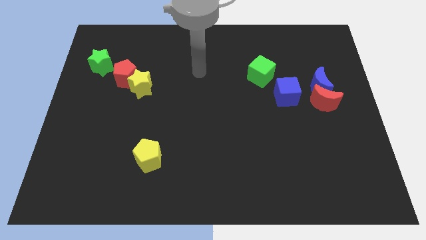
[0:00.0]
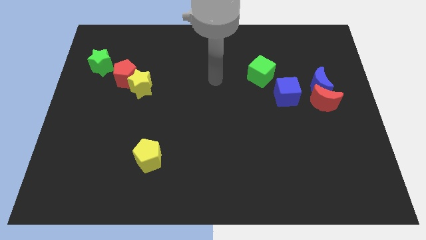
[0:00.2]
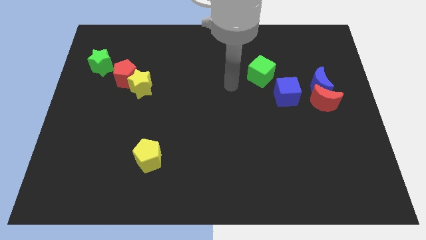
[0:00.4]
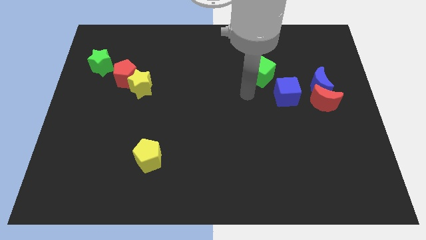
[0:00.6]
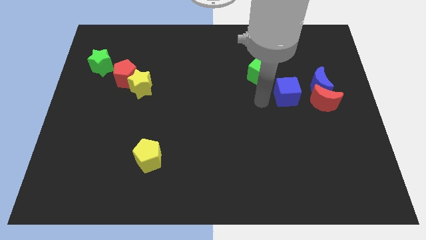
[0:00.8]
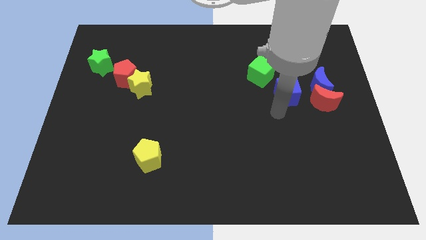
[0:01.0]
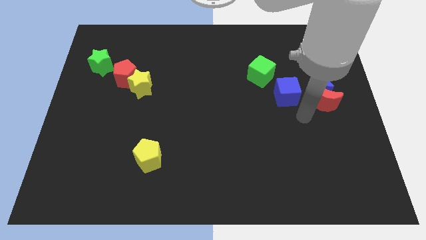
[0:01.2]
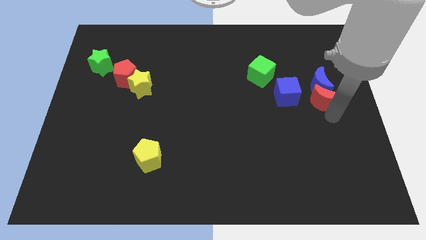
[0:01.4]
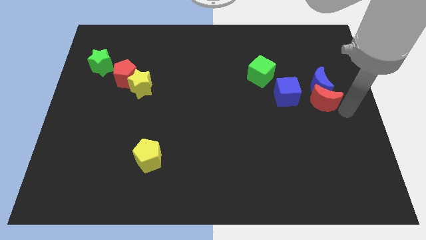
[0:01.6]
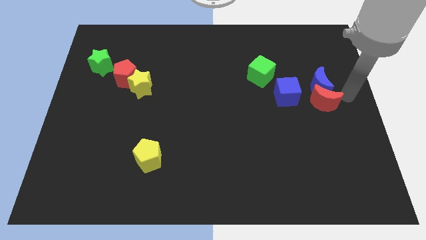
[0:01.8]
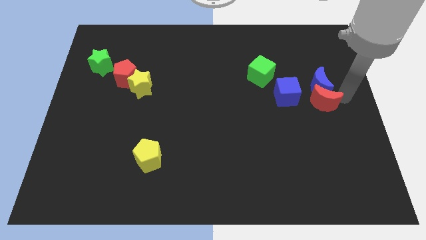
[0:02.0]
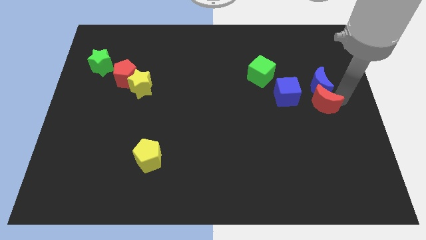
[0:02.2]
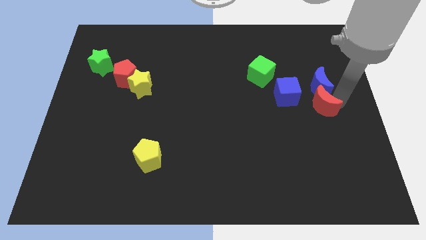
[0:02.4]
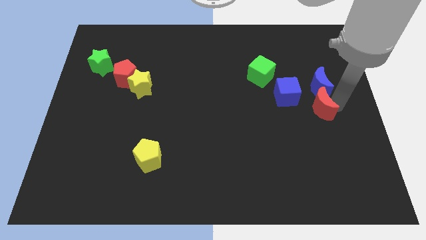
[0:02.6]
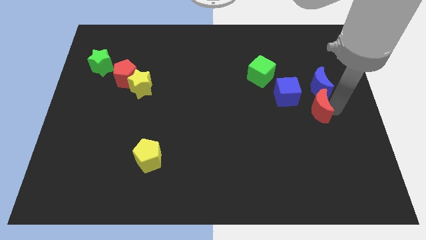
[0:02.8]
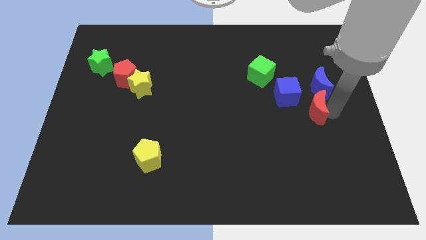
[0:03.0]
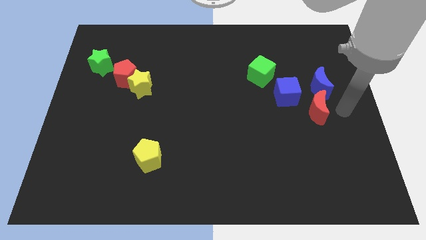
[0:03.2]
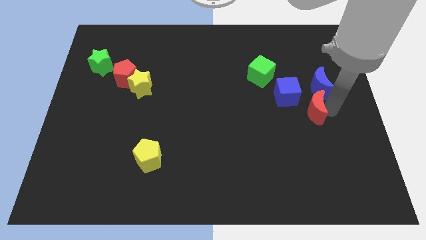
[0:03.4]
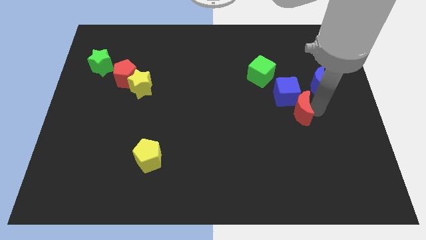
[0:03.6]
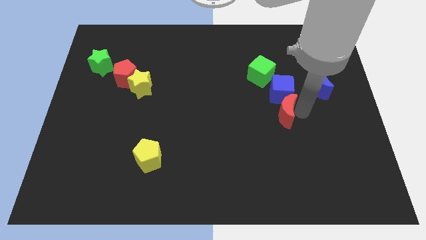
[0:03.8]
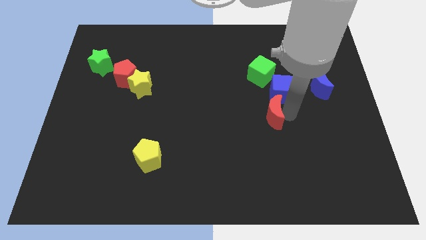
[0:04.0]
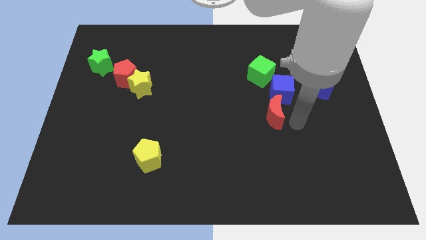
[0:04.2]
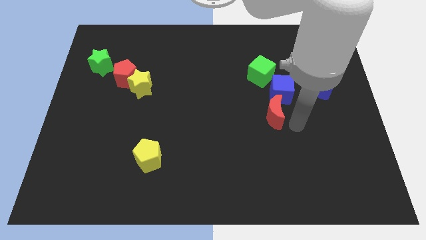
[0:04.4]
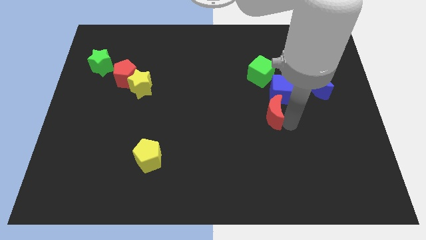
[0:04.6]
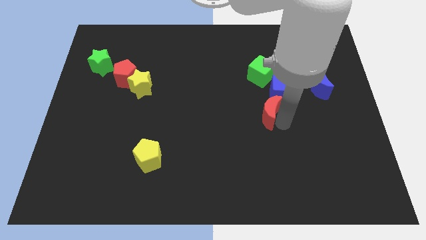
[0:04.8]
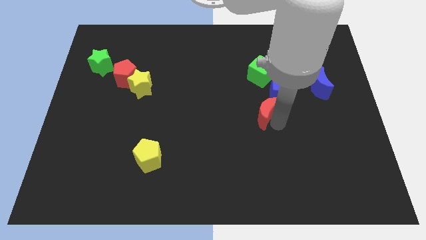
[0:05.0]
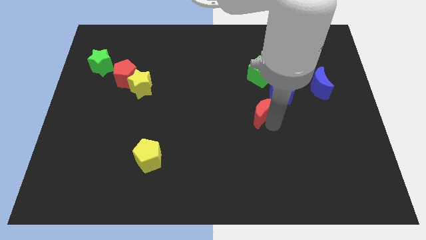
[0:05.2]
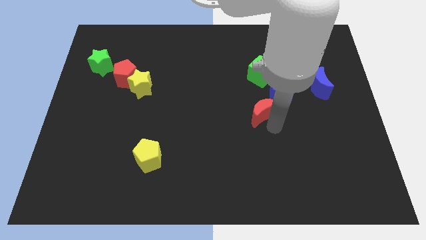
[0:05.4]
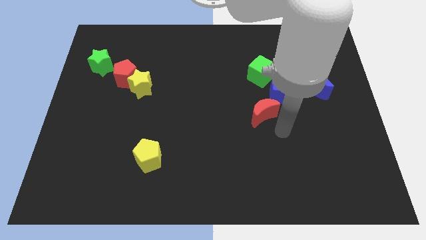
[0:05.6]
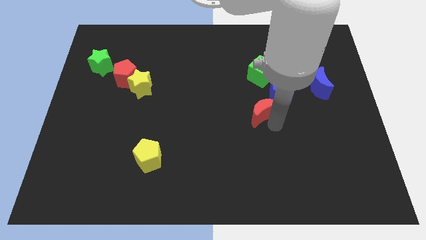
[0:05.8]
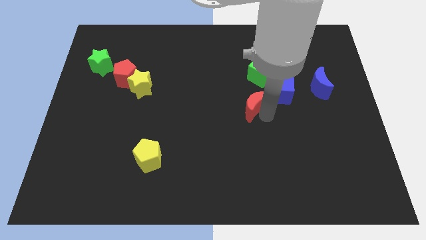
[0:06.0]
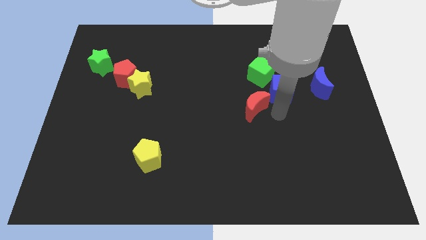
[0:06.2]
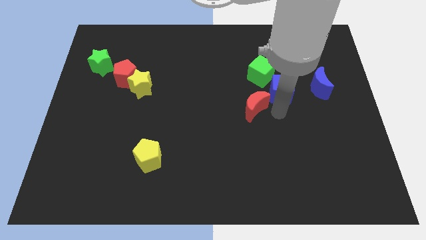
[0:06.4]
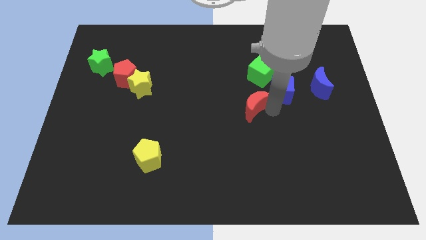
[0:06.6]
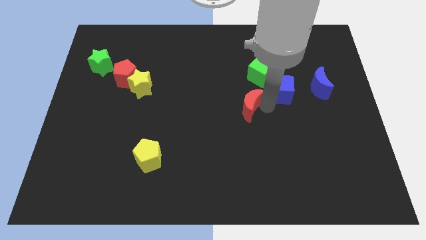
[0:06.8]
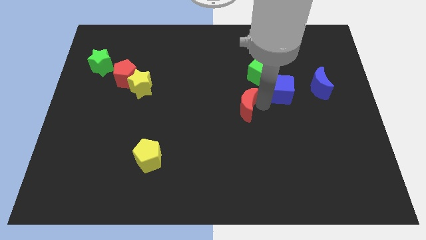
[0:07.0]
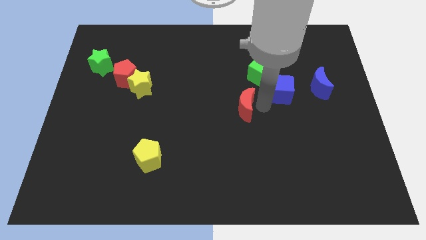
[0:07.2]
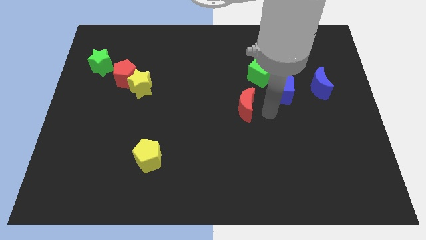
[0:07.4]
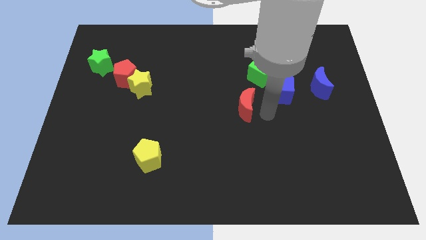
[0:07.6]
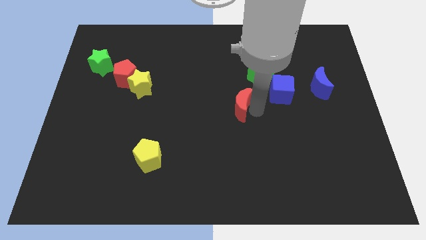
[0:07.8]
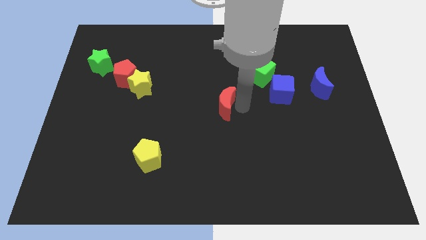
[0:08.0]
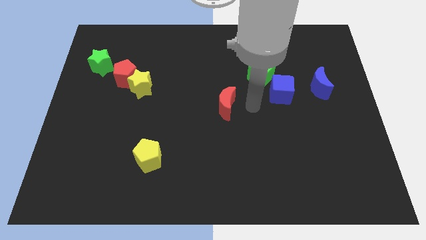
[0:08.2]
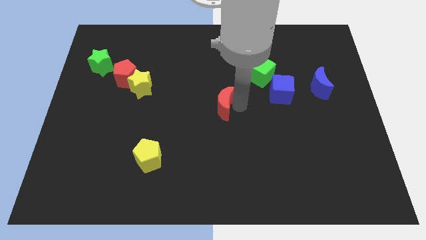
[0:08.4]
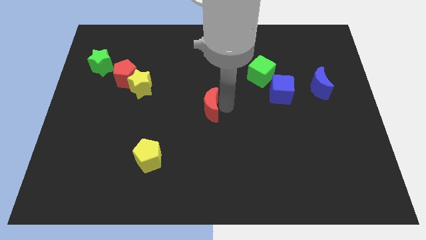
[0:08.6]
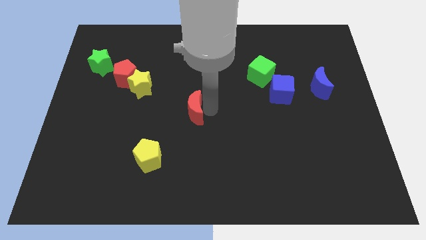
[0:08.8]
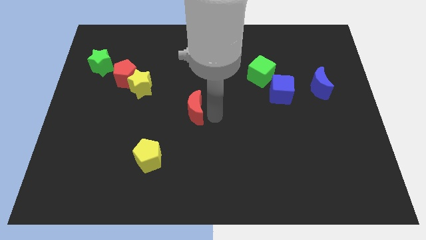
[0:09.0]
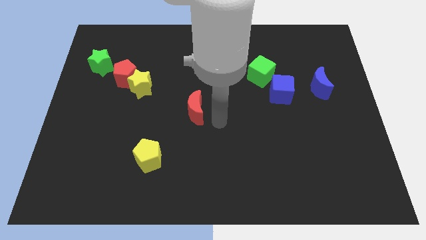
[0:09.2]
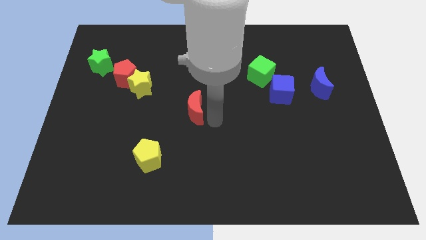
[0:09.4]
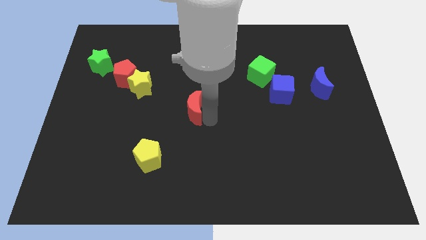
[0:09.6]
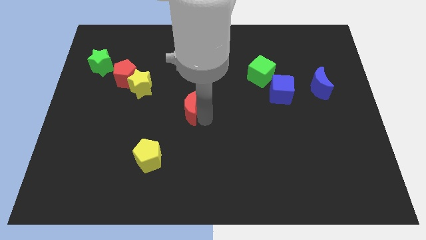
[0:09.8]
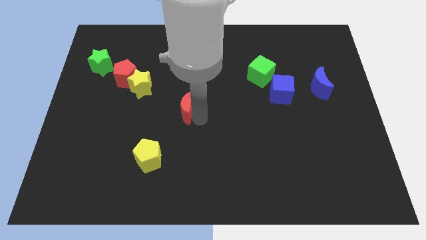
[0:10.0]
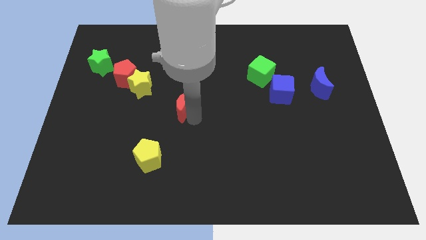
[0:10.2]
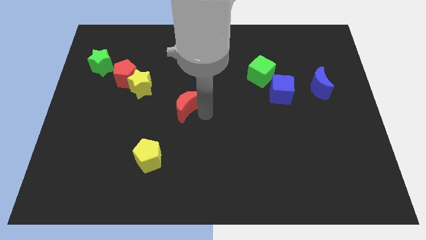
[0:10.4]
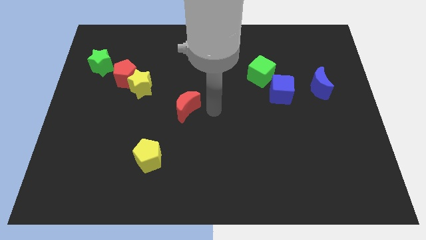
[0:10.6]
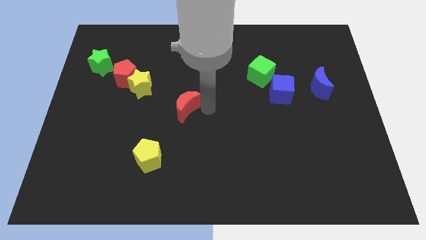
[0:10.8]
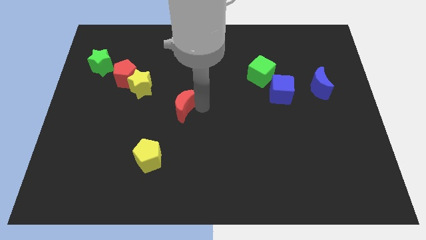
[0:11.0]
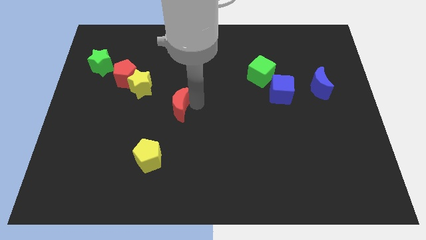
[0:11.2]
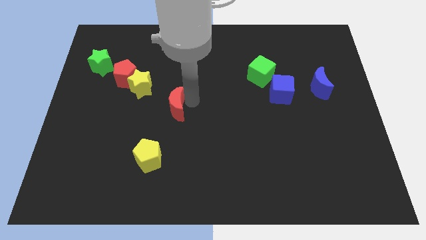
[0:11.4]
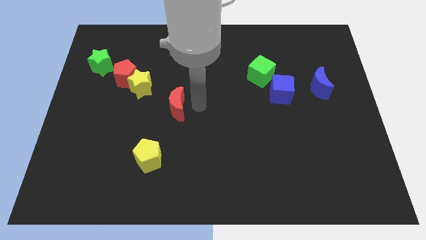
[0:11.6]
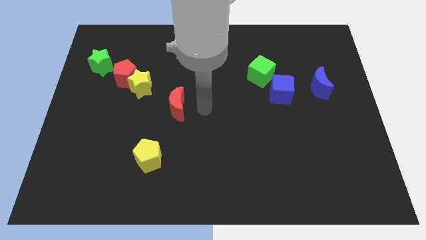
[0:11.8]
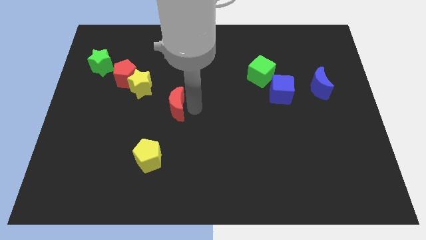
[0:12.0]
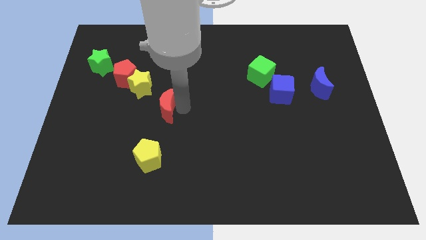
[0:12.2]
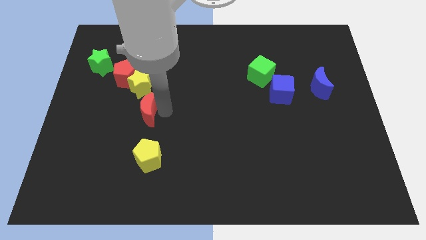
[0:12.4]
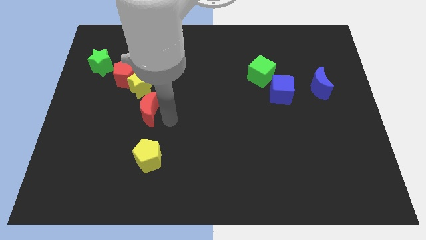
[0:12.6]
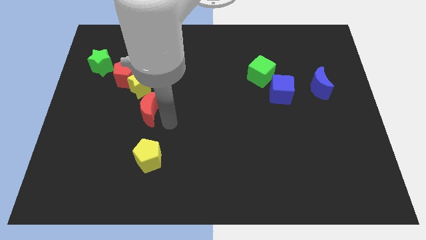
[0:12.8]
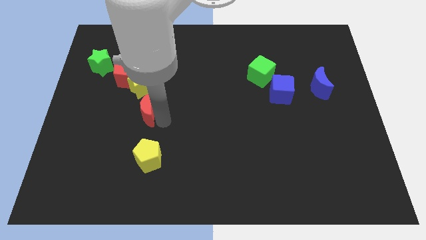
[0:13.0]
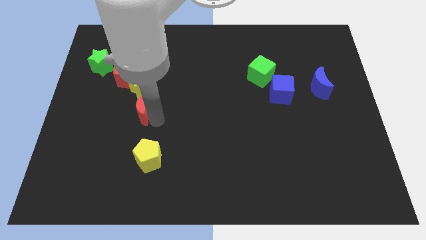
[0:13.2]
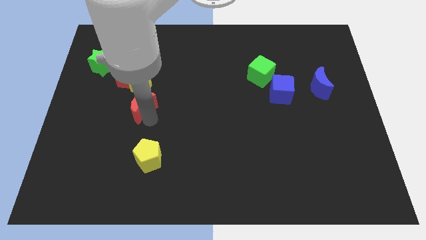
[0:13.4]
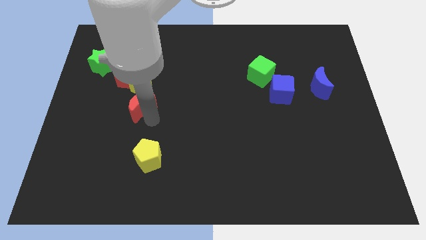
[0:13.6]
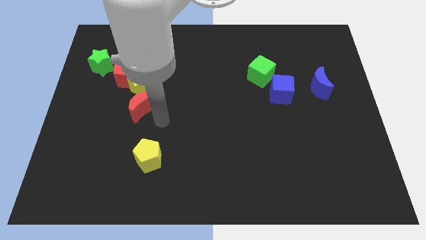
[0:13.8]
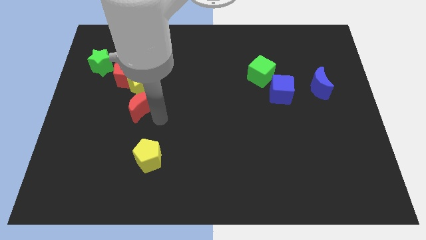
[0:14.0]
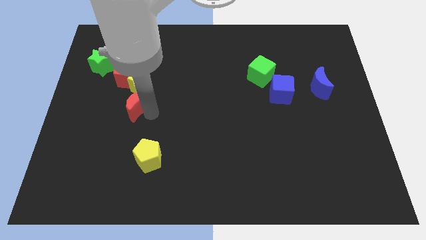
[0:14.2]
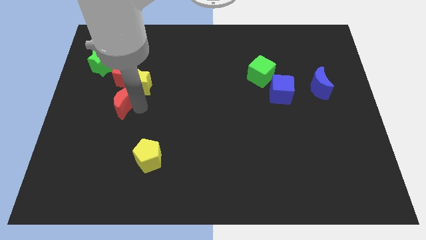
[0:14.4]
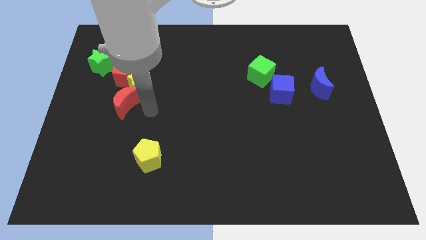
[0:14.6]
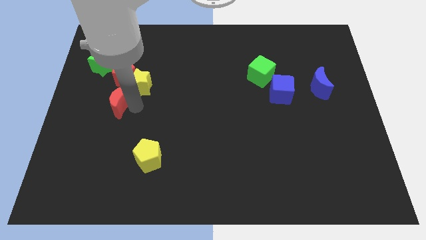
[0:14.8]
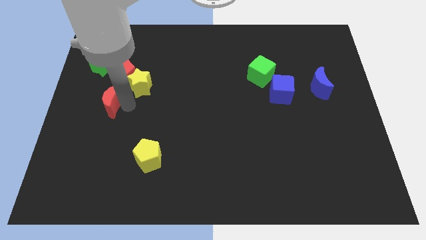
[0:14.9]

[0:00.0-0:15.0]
put the red moon below the green star
